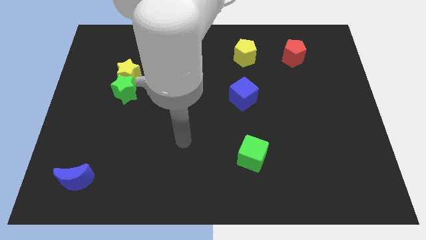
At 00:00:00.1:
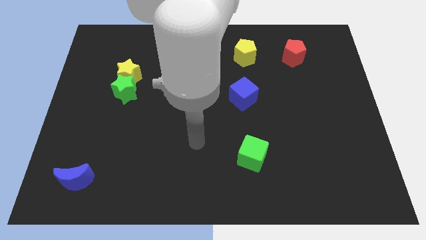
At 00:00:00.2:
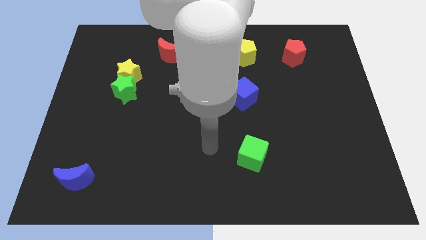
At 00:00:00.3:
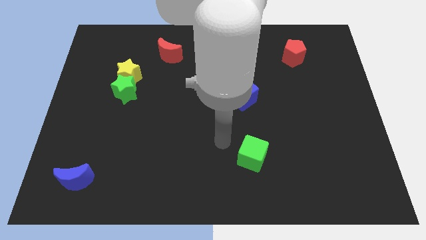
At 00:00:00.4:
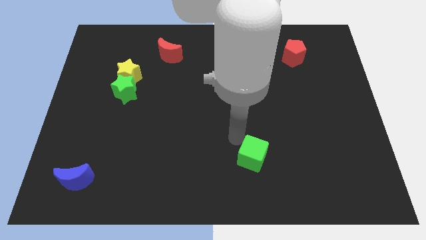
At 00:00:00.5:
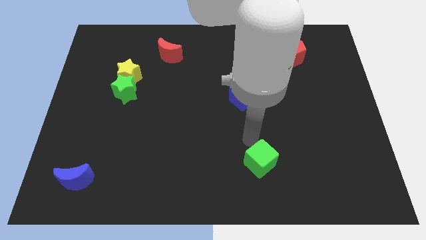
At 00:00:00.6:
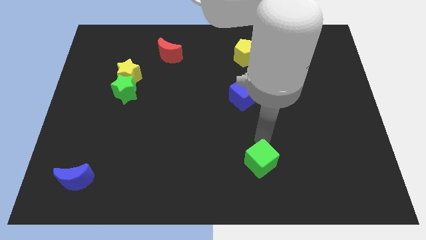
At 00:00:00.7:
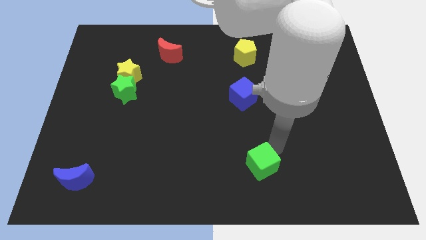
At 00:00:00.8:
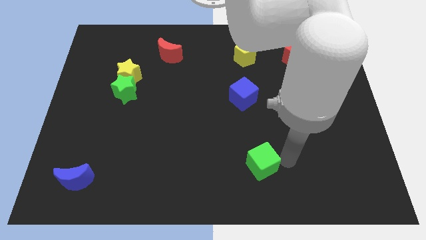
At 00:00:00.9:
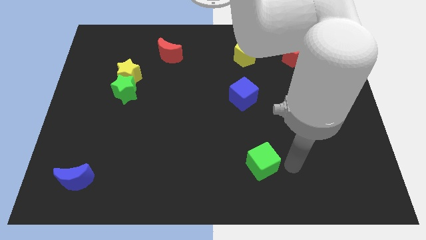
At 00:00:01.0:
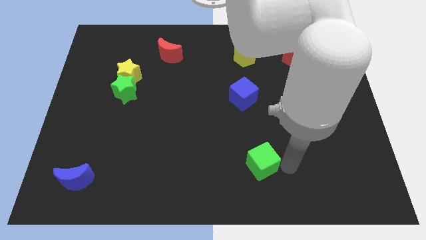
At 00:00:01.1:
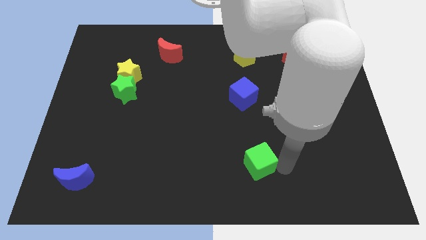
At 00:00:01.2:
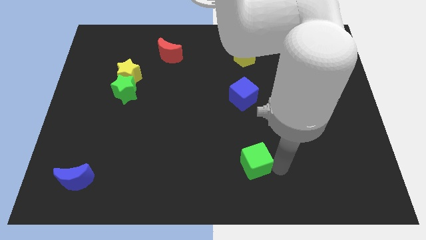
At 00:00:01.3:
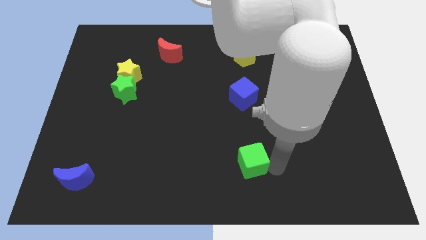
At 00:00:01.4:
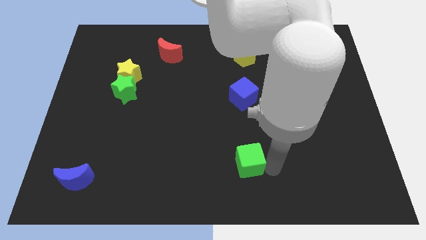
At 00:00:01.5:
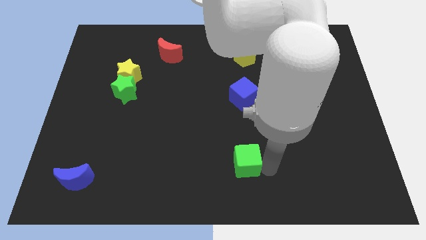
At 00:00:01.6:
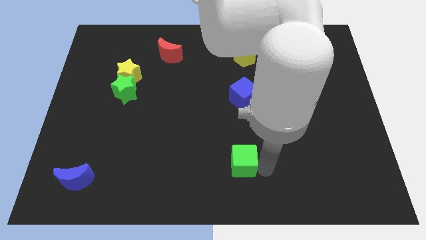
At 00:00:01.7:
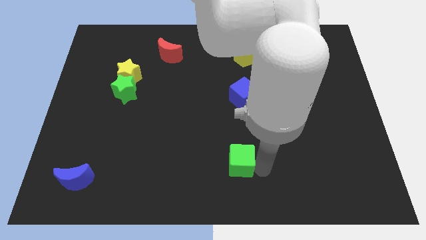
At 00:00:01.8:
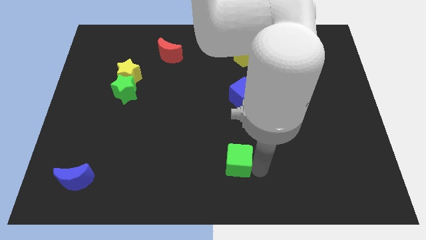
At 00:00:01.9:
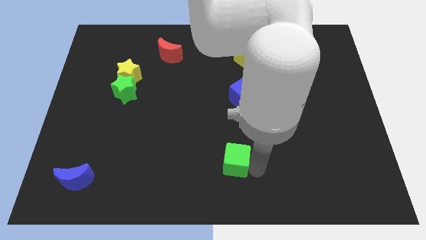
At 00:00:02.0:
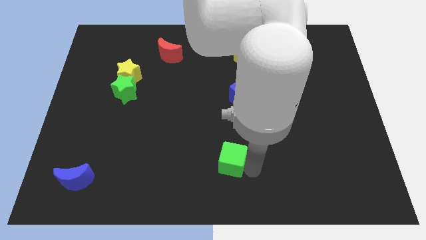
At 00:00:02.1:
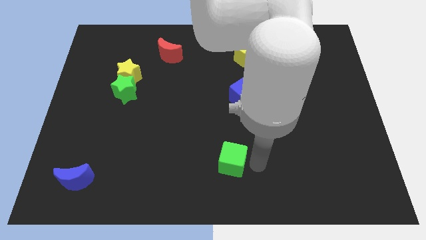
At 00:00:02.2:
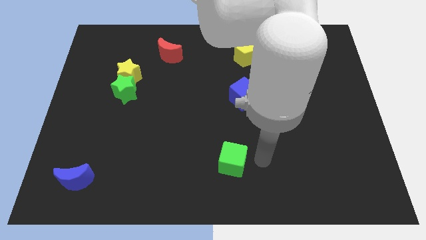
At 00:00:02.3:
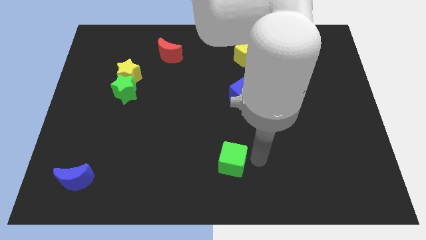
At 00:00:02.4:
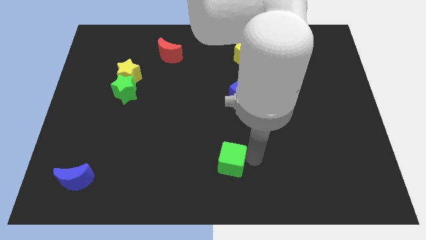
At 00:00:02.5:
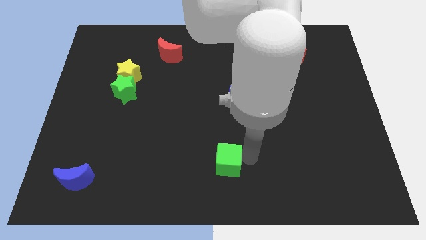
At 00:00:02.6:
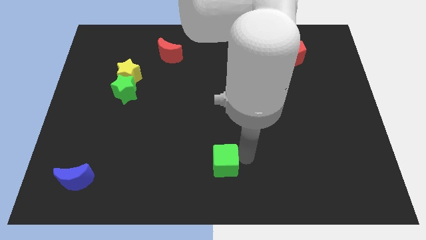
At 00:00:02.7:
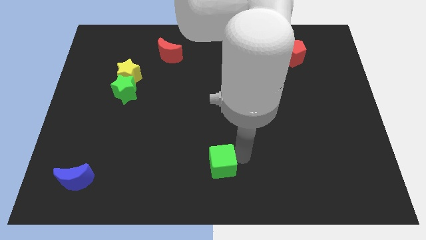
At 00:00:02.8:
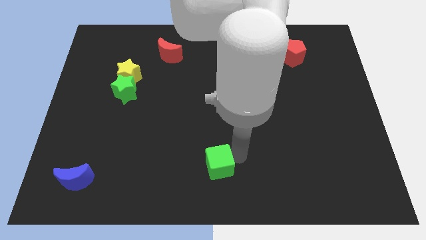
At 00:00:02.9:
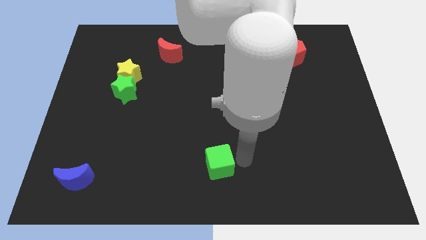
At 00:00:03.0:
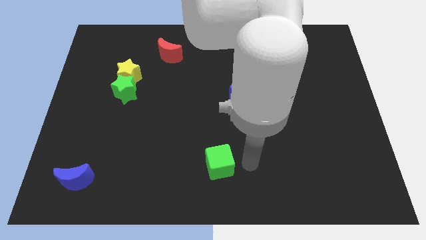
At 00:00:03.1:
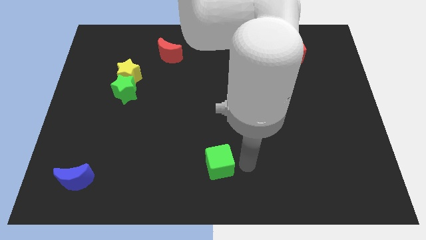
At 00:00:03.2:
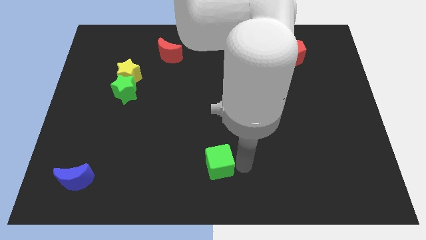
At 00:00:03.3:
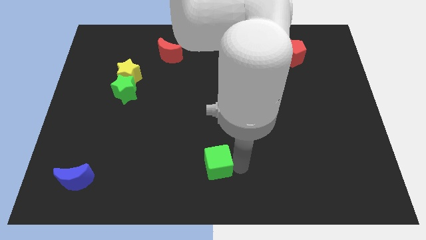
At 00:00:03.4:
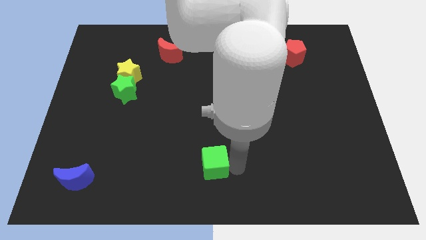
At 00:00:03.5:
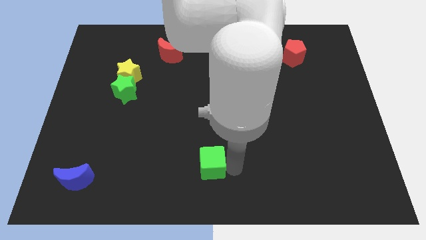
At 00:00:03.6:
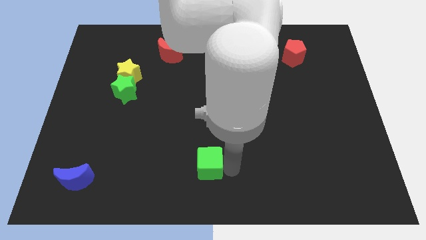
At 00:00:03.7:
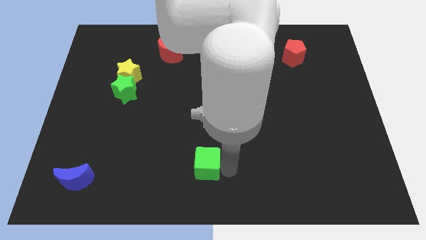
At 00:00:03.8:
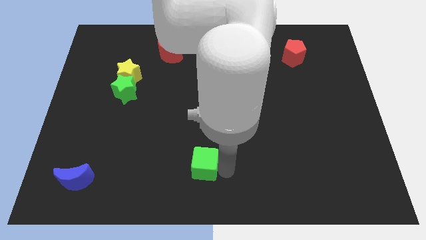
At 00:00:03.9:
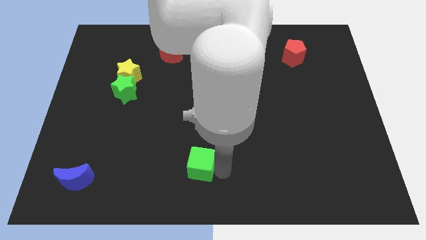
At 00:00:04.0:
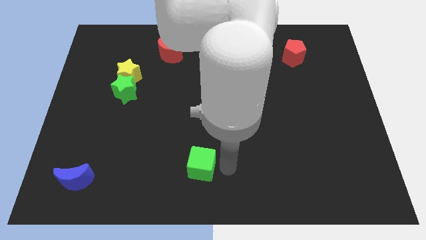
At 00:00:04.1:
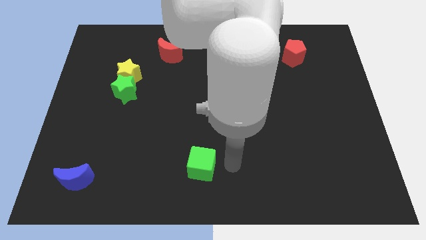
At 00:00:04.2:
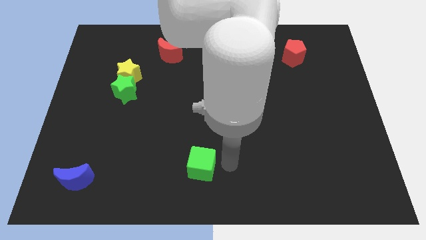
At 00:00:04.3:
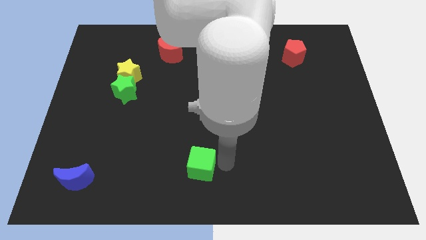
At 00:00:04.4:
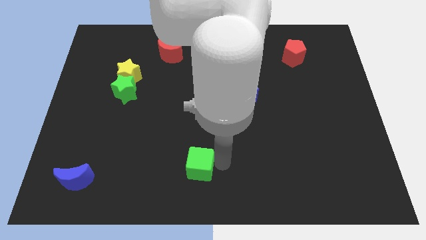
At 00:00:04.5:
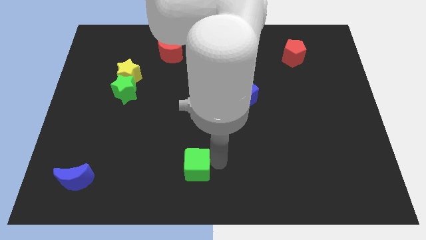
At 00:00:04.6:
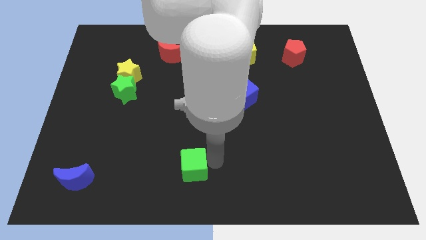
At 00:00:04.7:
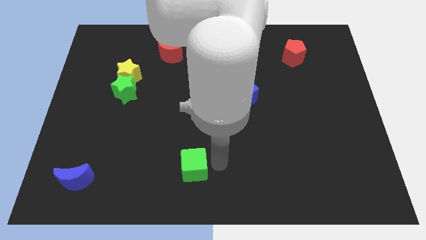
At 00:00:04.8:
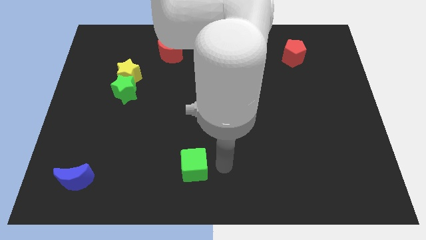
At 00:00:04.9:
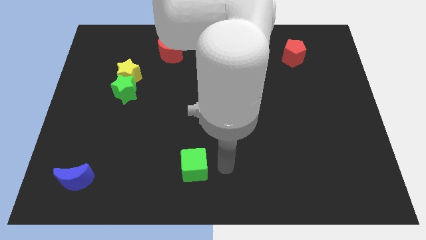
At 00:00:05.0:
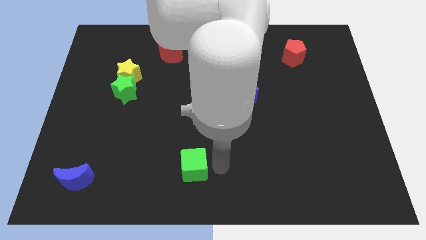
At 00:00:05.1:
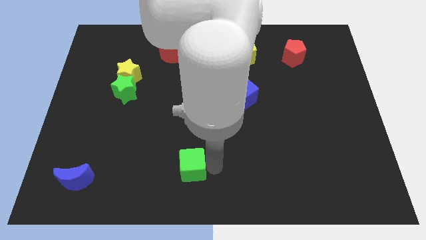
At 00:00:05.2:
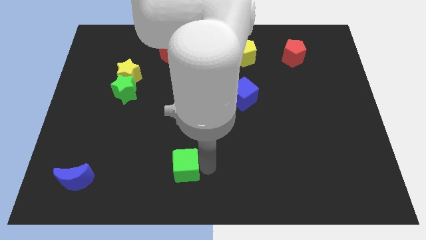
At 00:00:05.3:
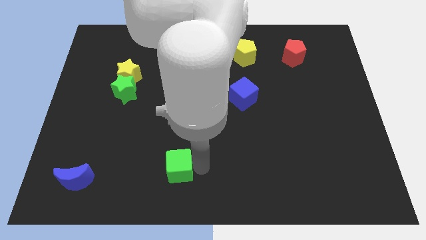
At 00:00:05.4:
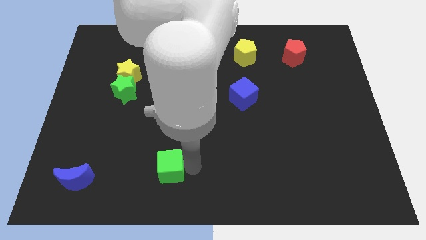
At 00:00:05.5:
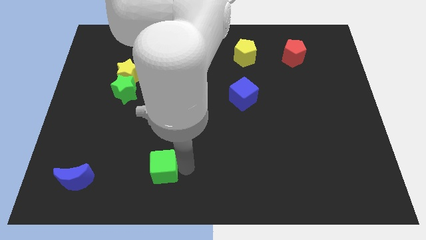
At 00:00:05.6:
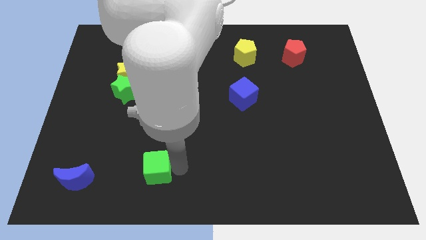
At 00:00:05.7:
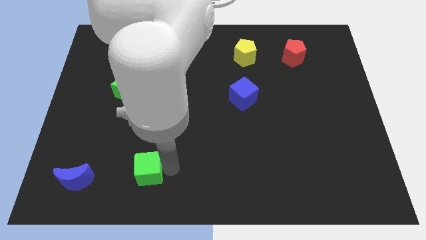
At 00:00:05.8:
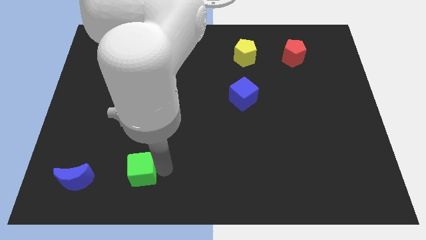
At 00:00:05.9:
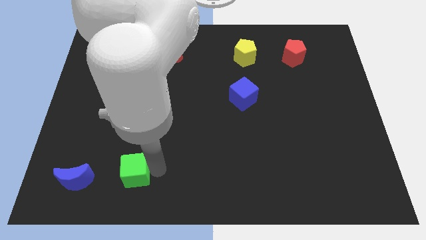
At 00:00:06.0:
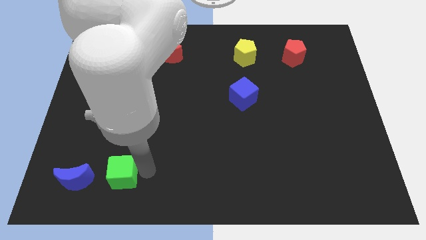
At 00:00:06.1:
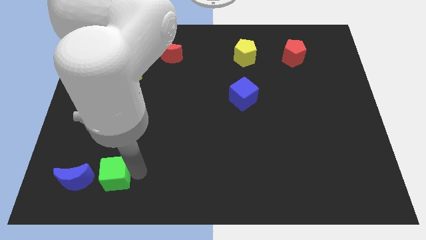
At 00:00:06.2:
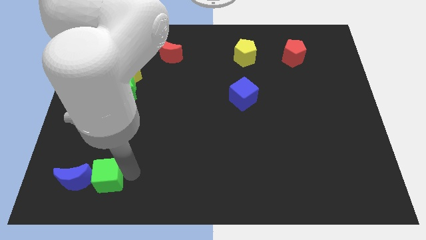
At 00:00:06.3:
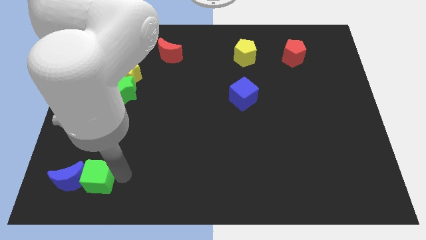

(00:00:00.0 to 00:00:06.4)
put the green cube close to the blue moon

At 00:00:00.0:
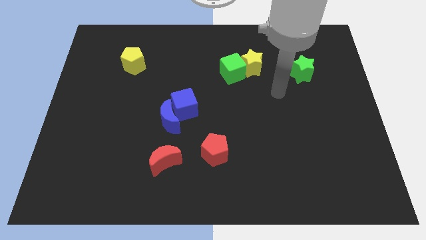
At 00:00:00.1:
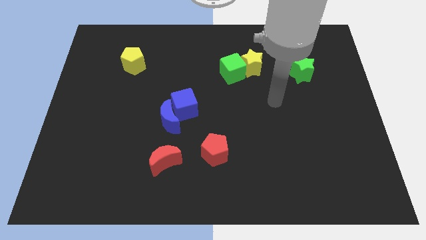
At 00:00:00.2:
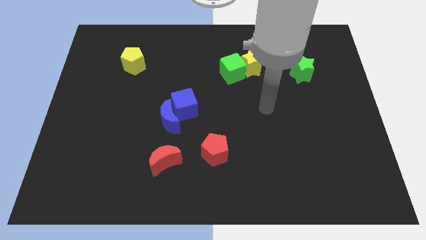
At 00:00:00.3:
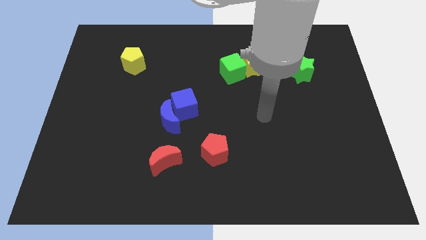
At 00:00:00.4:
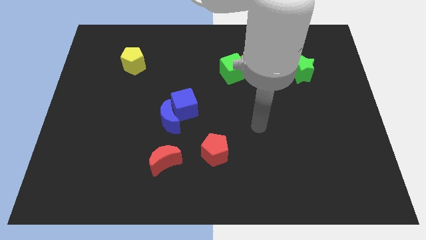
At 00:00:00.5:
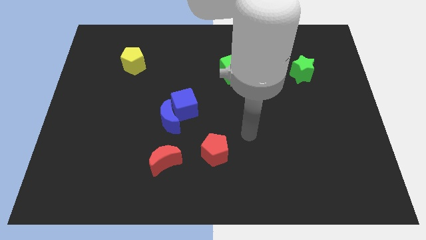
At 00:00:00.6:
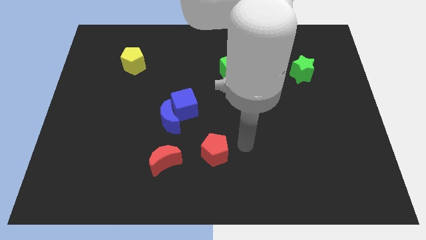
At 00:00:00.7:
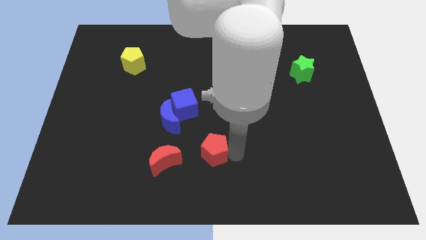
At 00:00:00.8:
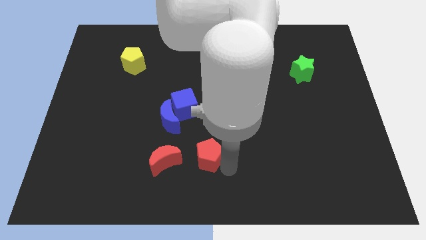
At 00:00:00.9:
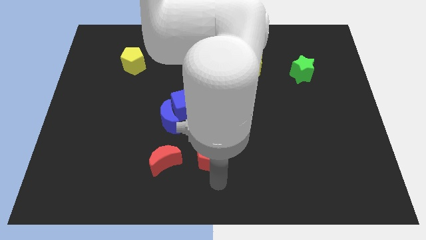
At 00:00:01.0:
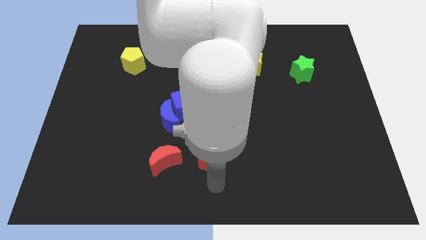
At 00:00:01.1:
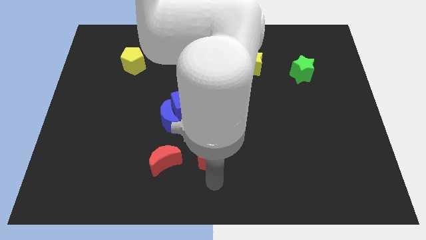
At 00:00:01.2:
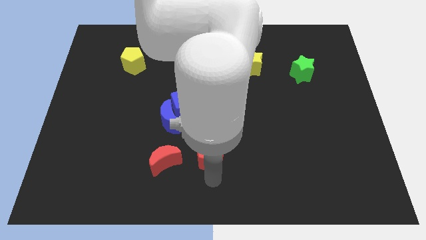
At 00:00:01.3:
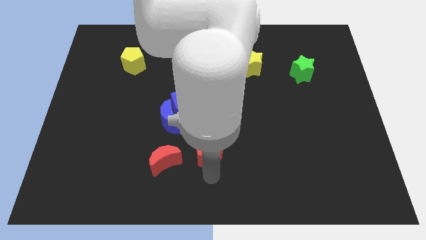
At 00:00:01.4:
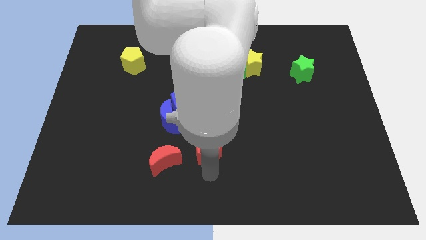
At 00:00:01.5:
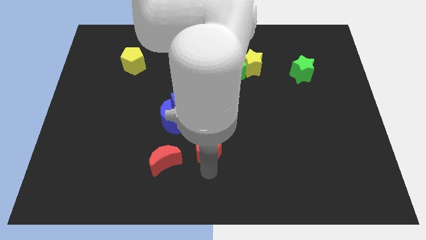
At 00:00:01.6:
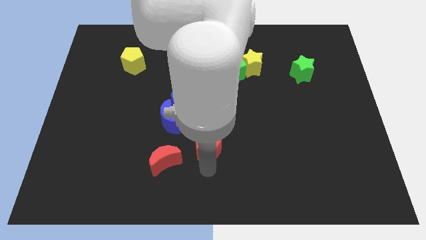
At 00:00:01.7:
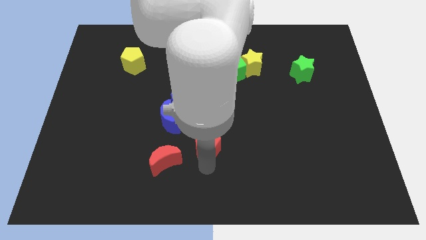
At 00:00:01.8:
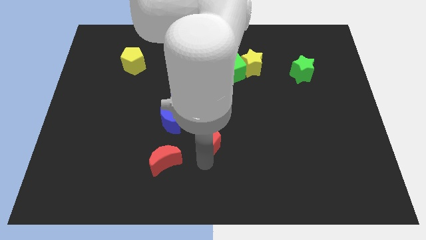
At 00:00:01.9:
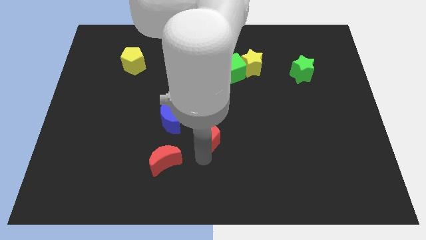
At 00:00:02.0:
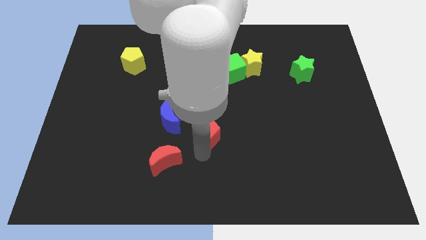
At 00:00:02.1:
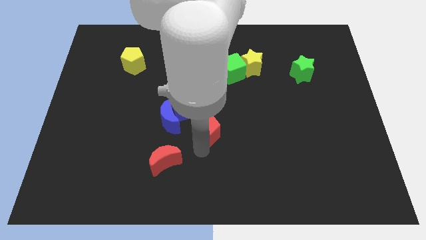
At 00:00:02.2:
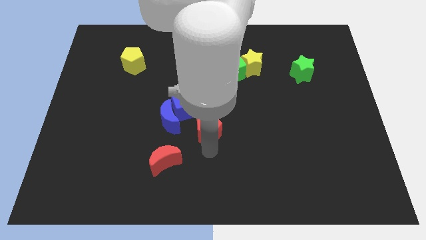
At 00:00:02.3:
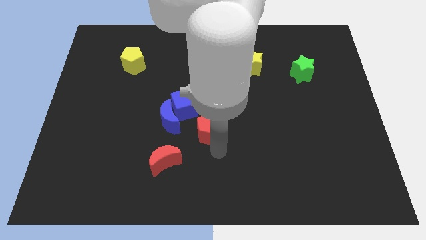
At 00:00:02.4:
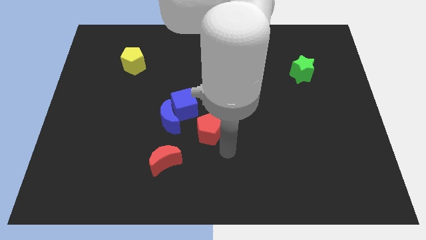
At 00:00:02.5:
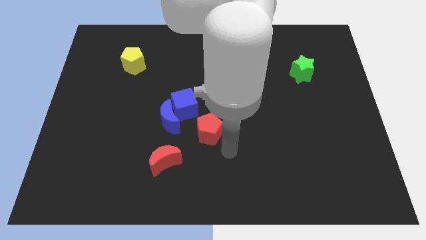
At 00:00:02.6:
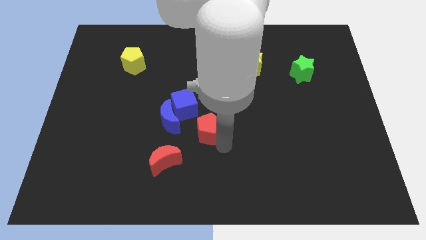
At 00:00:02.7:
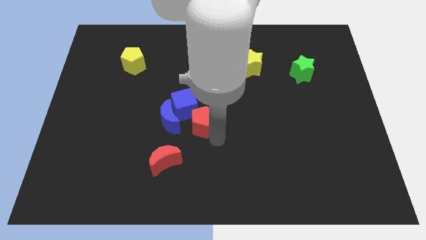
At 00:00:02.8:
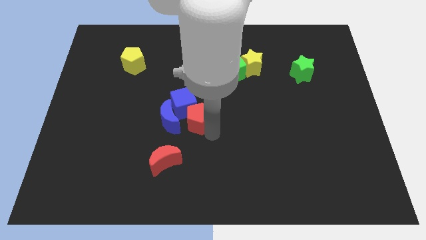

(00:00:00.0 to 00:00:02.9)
put the red pentagon to the blue cube
